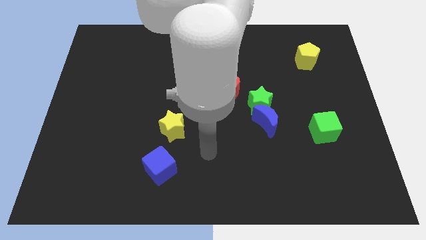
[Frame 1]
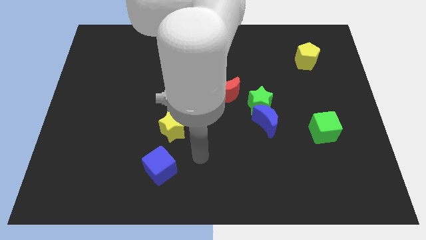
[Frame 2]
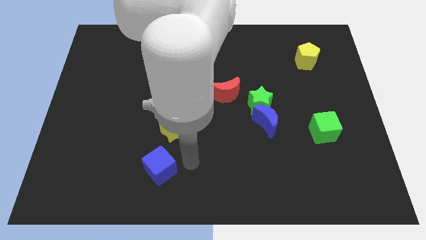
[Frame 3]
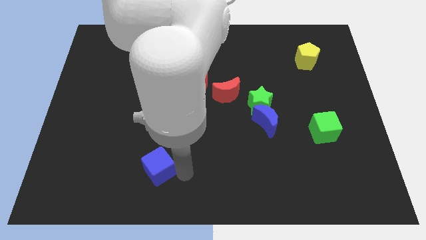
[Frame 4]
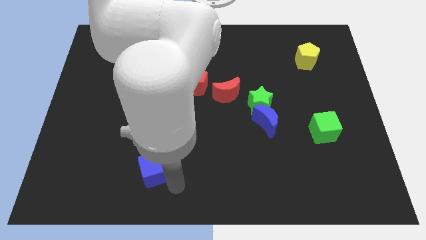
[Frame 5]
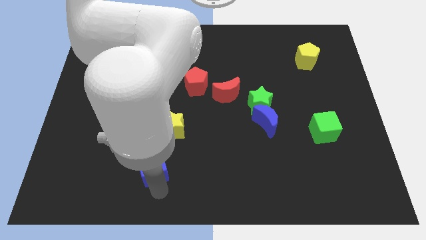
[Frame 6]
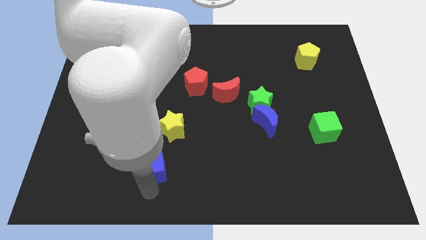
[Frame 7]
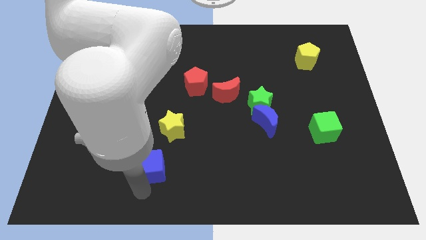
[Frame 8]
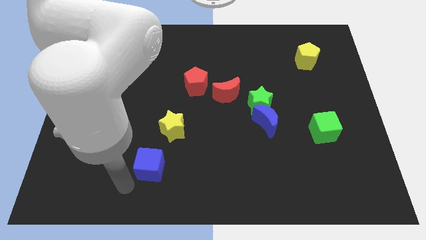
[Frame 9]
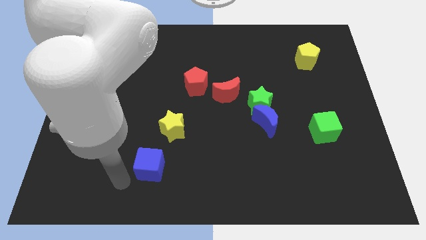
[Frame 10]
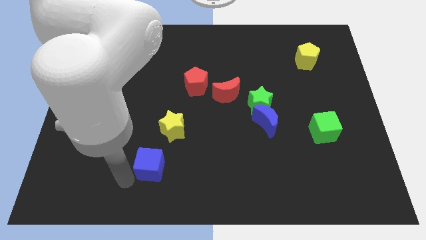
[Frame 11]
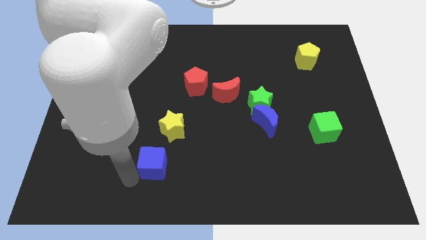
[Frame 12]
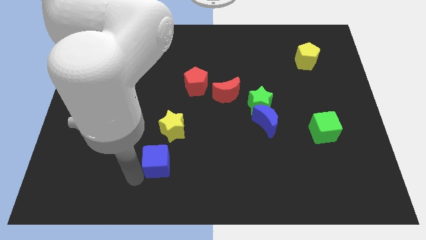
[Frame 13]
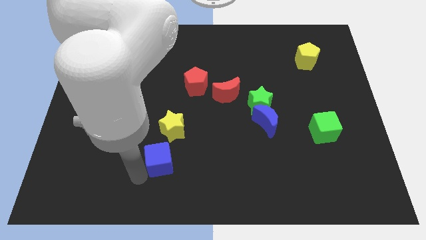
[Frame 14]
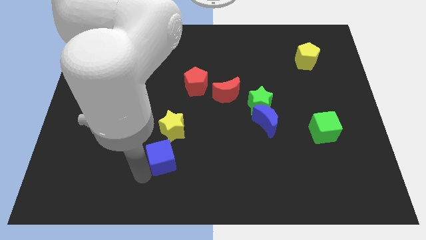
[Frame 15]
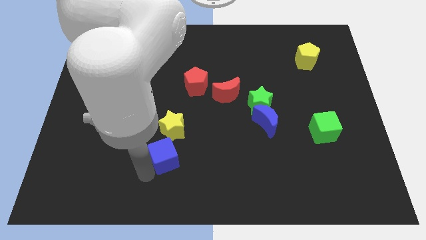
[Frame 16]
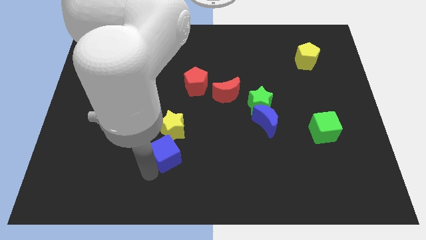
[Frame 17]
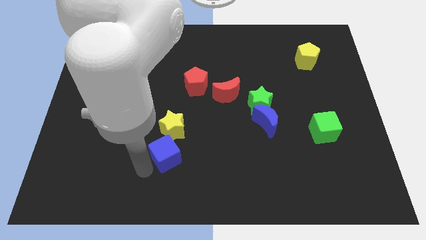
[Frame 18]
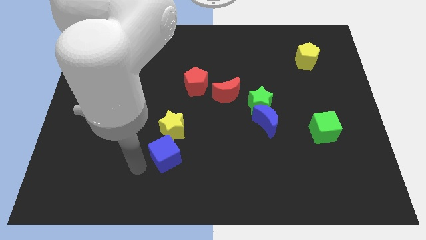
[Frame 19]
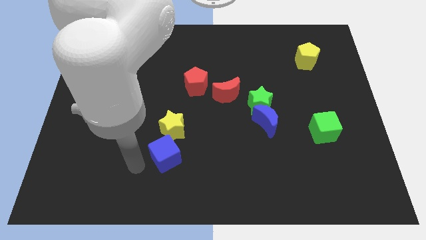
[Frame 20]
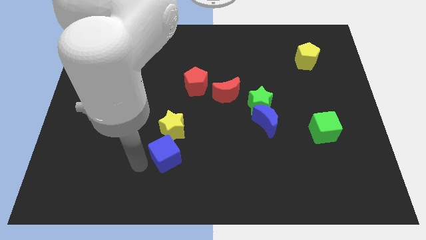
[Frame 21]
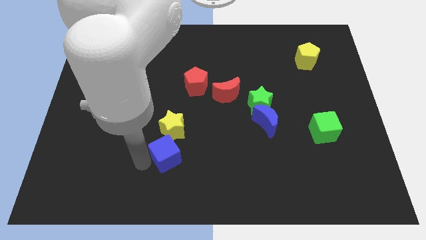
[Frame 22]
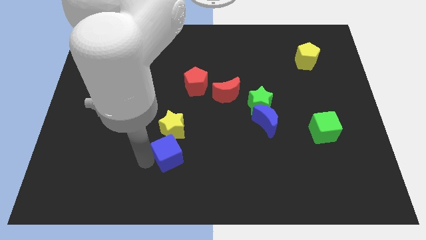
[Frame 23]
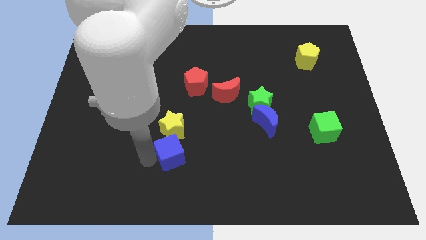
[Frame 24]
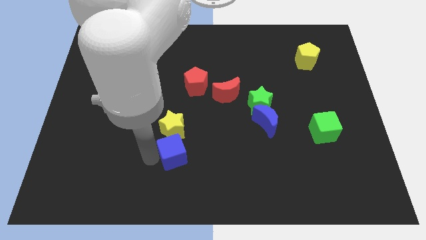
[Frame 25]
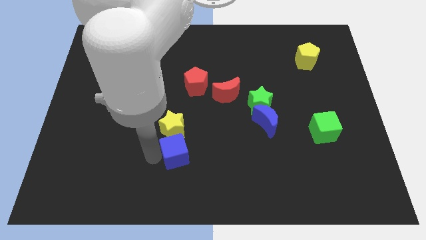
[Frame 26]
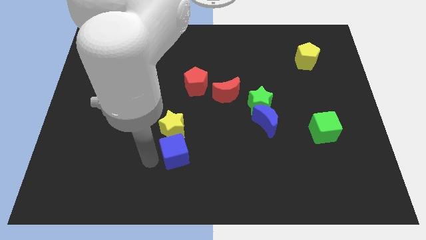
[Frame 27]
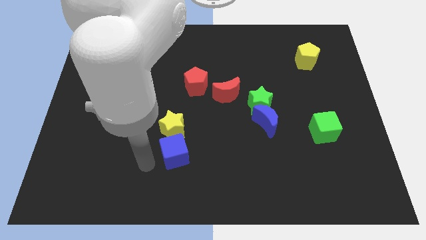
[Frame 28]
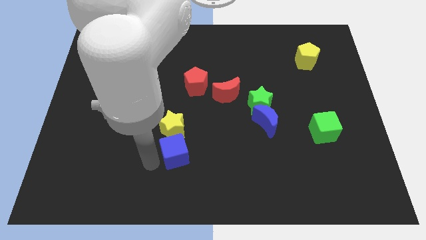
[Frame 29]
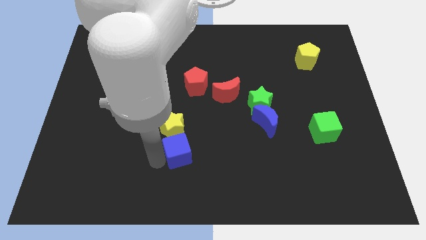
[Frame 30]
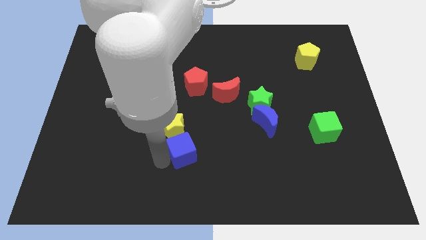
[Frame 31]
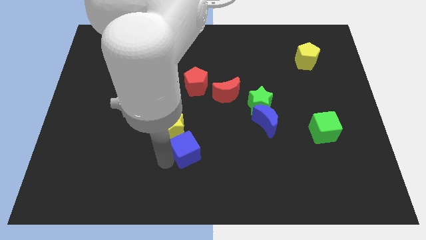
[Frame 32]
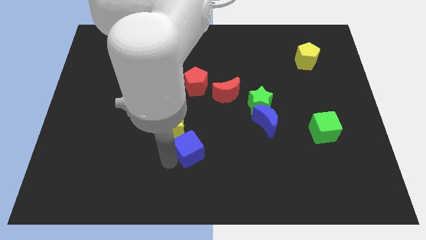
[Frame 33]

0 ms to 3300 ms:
move the blue cube upwards and then right a bit

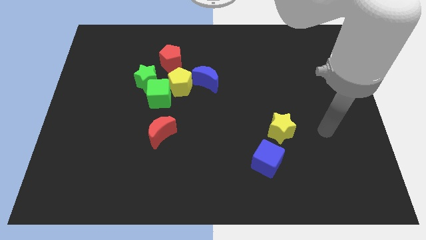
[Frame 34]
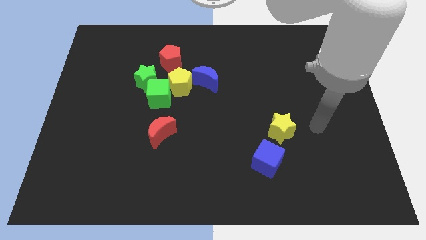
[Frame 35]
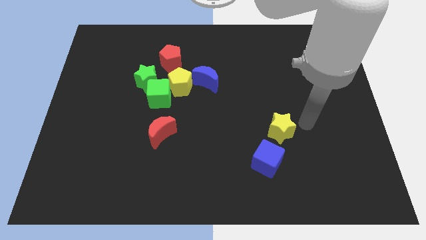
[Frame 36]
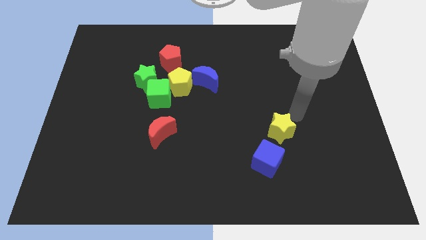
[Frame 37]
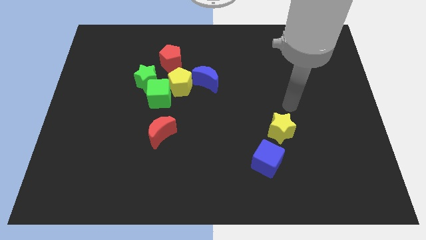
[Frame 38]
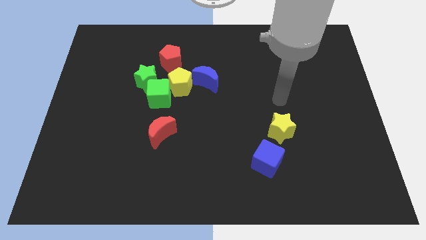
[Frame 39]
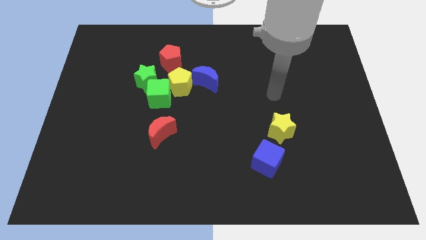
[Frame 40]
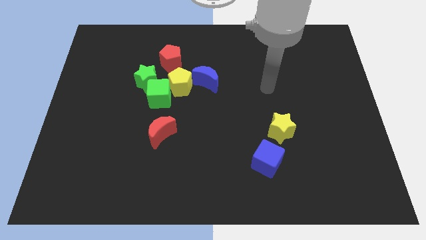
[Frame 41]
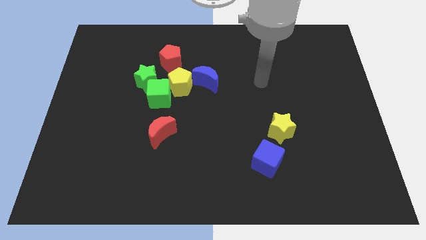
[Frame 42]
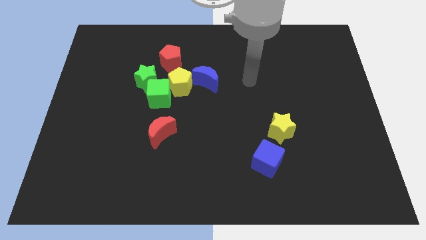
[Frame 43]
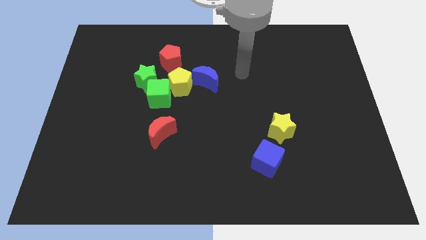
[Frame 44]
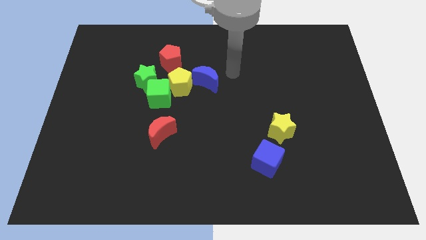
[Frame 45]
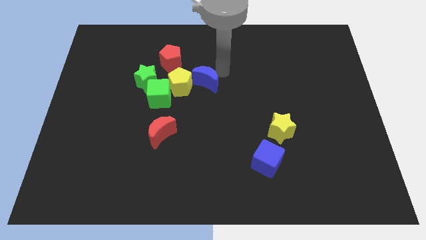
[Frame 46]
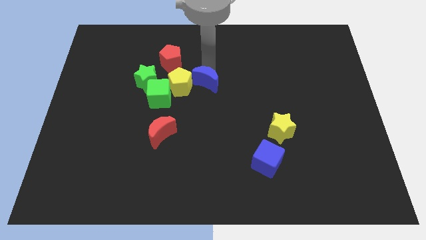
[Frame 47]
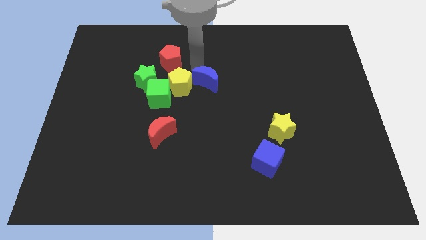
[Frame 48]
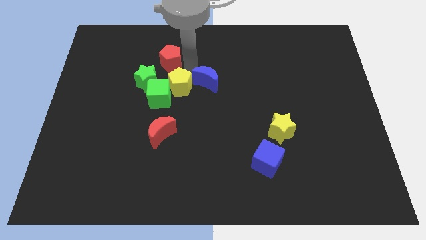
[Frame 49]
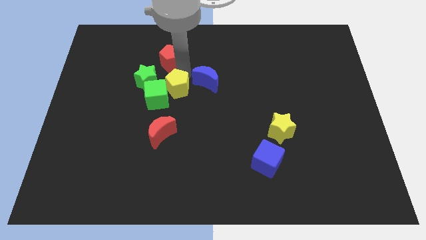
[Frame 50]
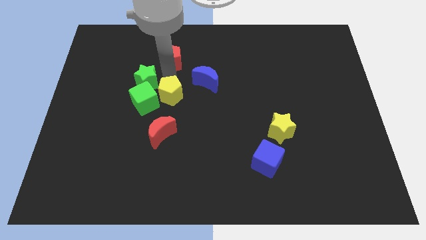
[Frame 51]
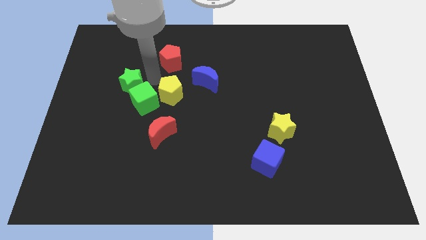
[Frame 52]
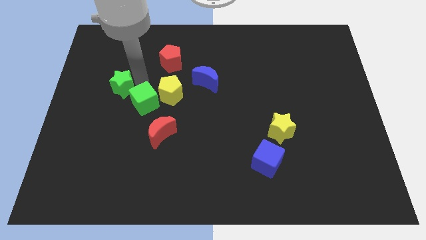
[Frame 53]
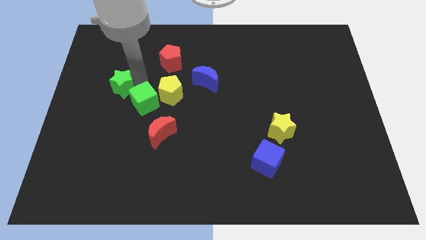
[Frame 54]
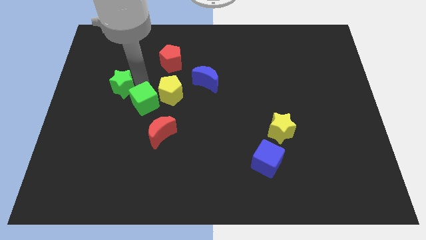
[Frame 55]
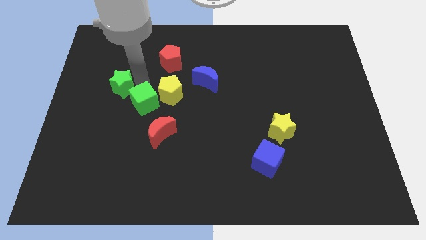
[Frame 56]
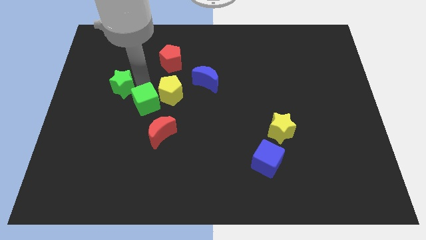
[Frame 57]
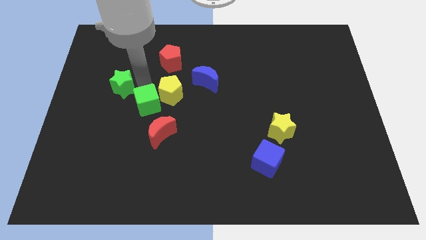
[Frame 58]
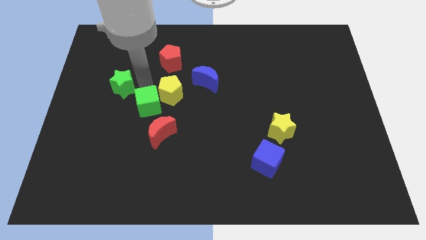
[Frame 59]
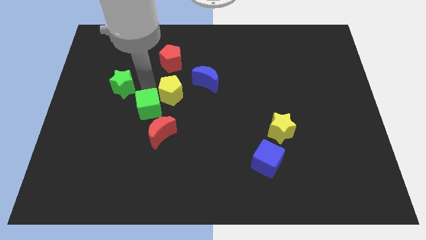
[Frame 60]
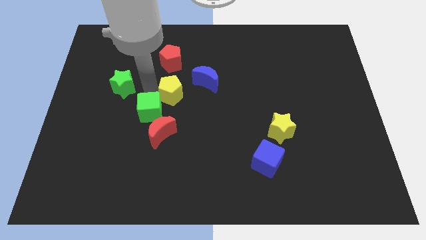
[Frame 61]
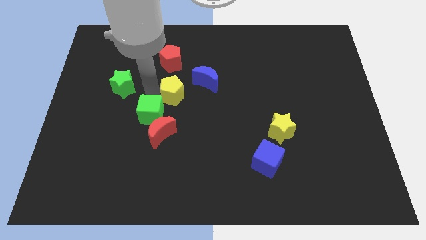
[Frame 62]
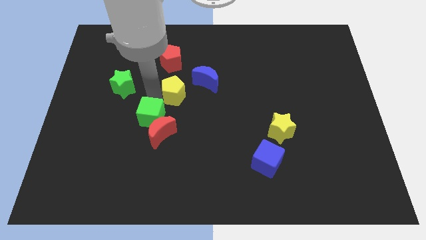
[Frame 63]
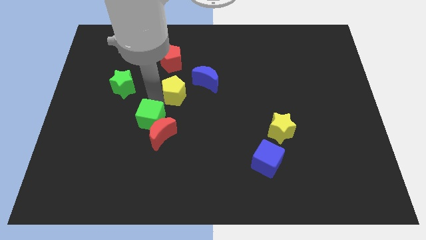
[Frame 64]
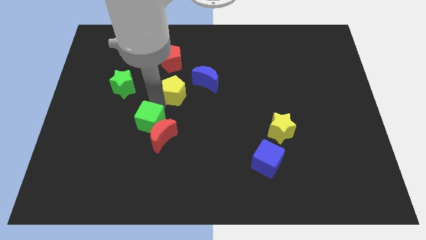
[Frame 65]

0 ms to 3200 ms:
slide the green cube downwards slightly

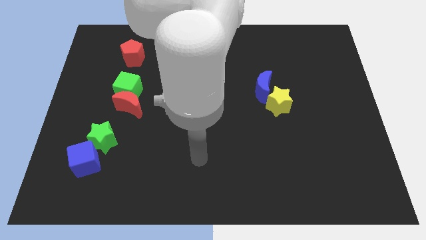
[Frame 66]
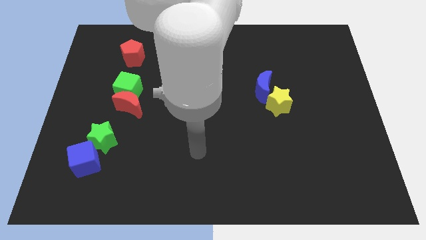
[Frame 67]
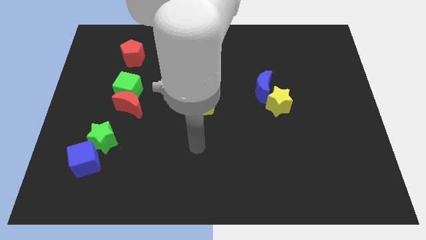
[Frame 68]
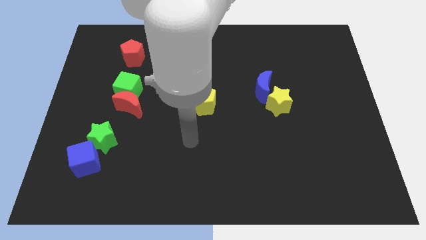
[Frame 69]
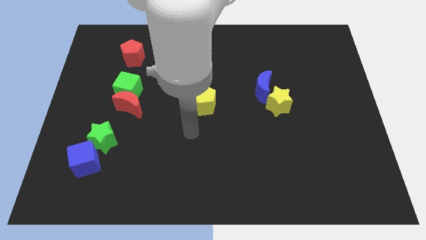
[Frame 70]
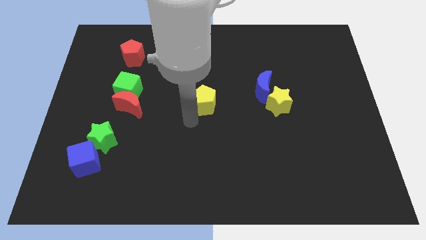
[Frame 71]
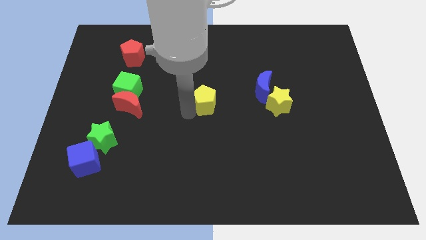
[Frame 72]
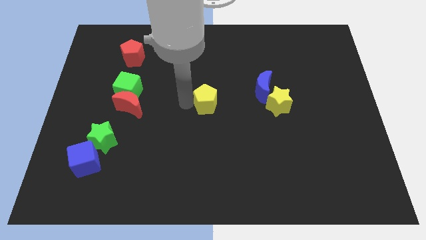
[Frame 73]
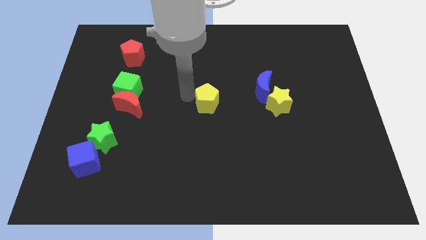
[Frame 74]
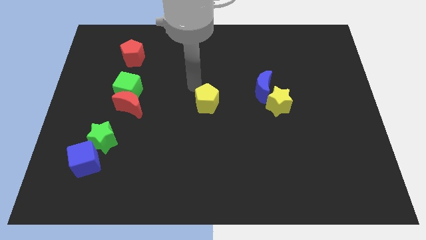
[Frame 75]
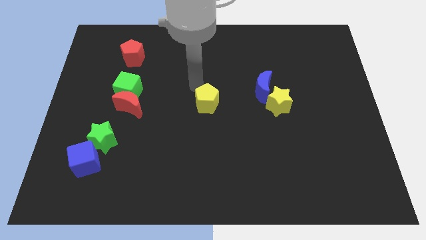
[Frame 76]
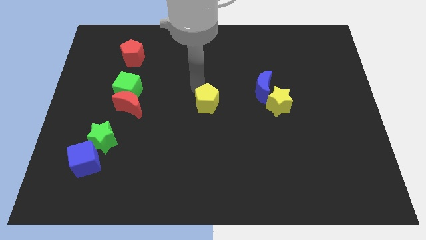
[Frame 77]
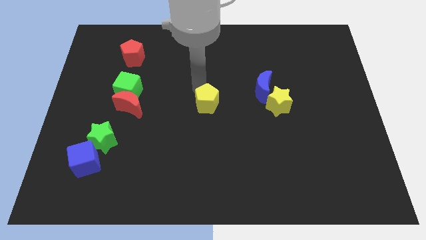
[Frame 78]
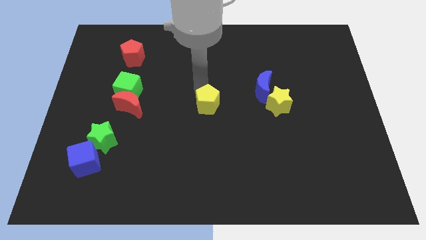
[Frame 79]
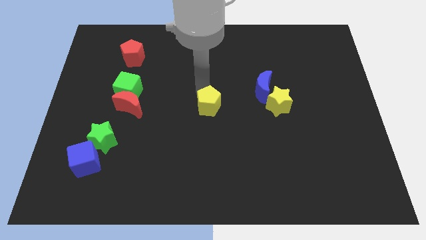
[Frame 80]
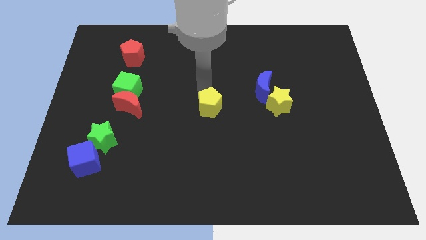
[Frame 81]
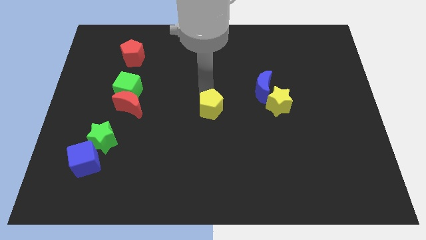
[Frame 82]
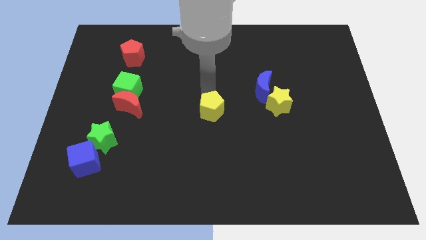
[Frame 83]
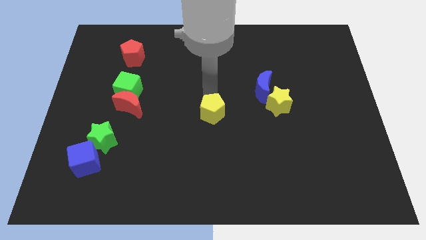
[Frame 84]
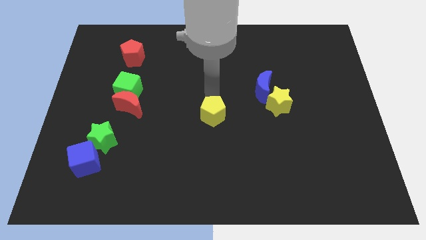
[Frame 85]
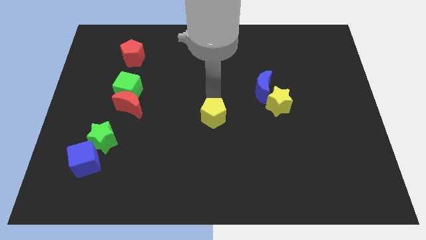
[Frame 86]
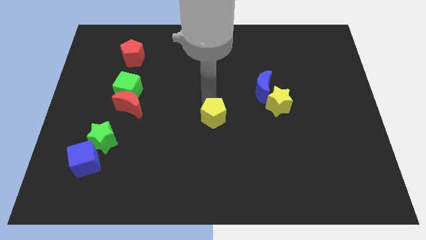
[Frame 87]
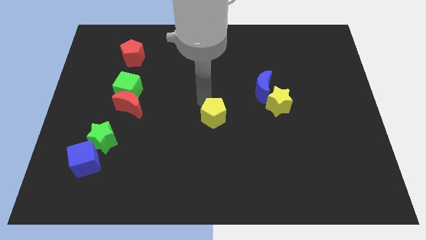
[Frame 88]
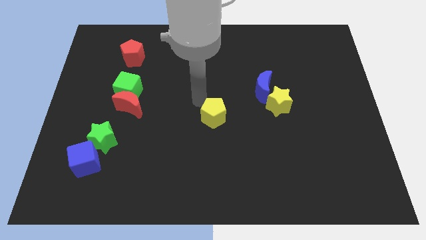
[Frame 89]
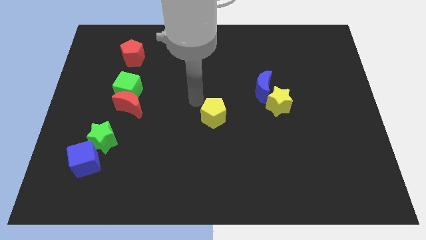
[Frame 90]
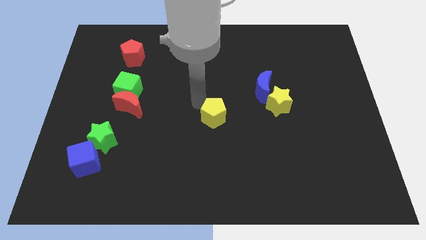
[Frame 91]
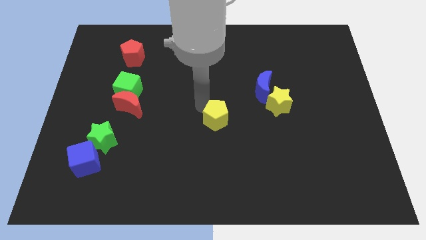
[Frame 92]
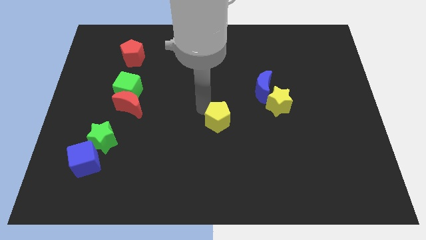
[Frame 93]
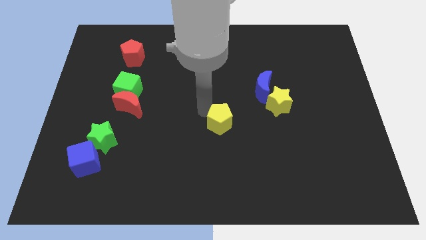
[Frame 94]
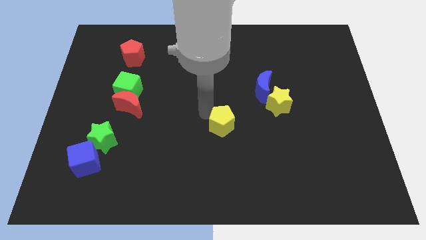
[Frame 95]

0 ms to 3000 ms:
push the yellow pentagon slightly downwards and right
